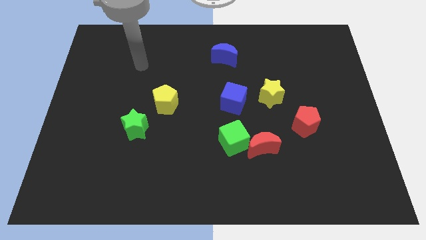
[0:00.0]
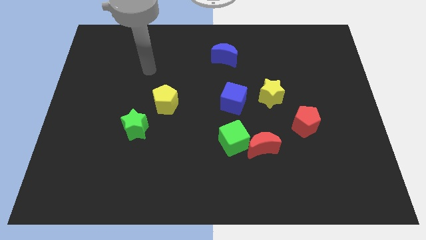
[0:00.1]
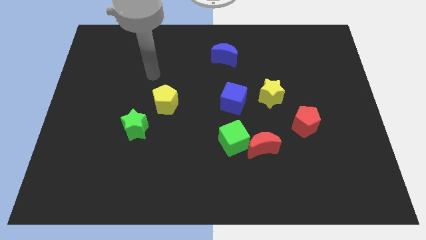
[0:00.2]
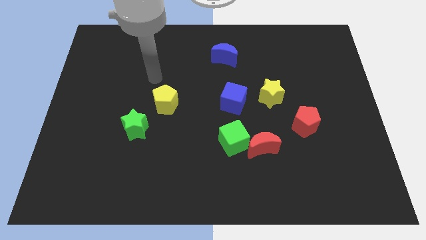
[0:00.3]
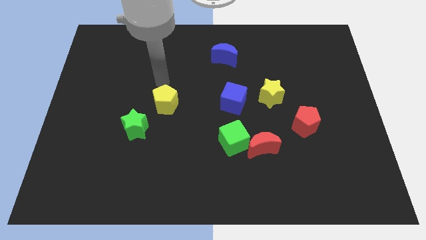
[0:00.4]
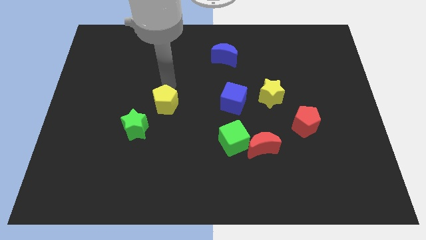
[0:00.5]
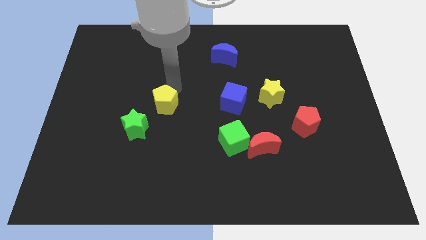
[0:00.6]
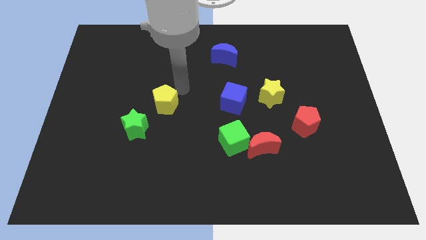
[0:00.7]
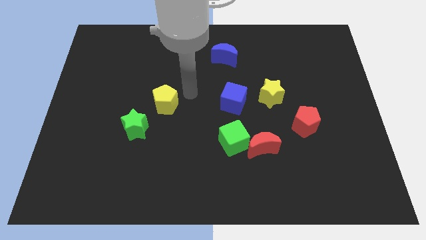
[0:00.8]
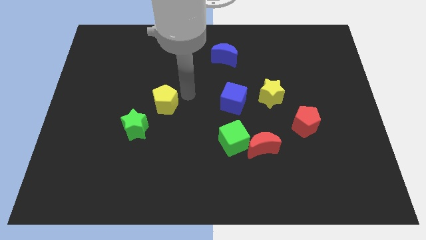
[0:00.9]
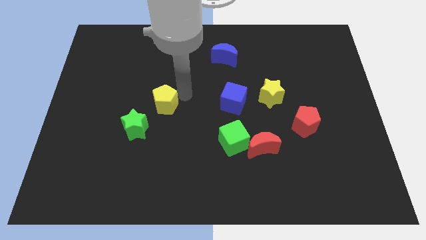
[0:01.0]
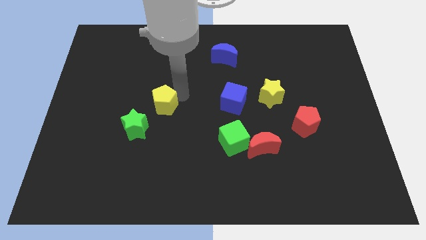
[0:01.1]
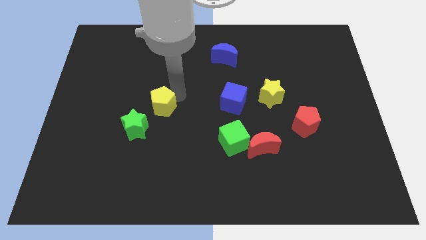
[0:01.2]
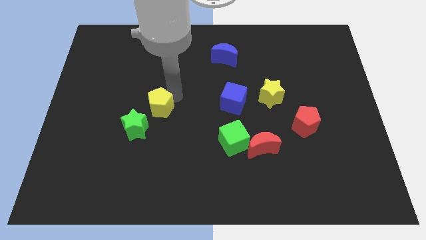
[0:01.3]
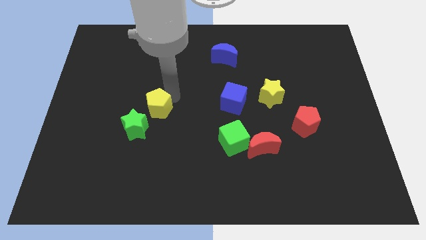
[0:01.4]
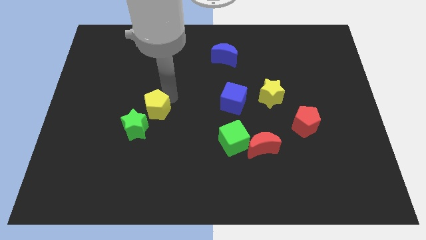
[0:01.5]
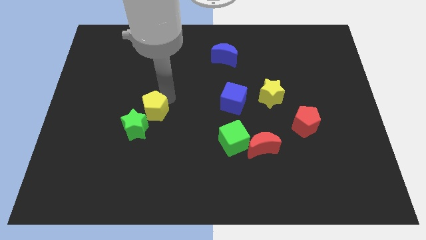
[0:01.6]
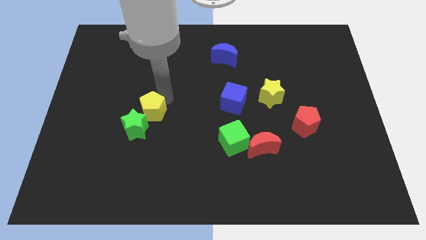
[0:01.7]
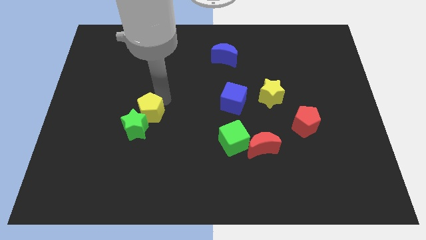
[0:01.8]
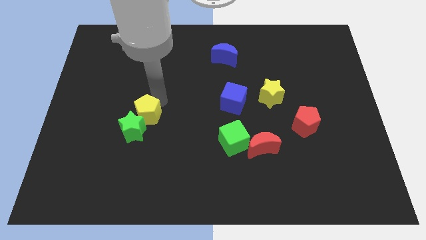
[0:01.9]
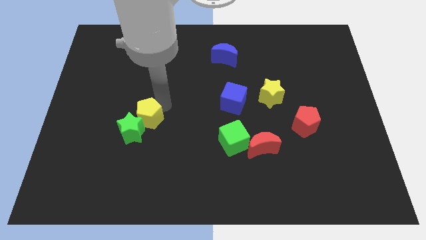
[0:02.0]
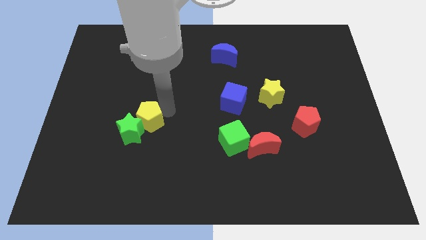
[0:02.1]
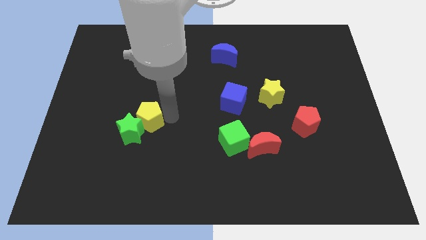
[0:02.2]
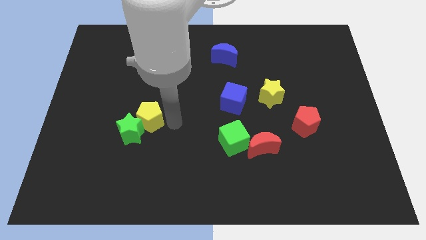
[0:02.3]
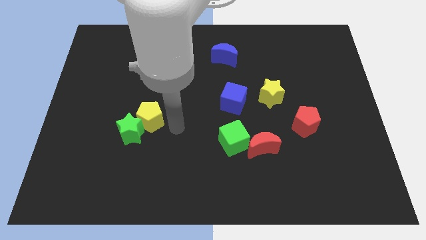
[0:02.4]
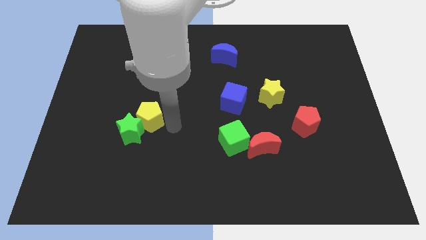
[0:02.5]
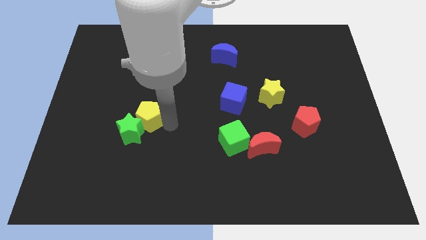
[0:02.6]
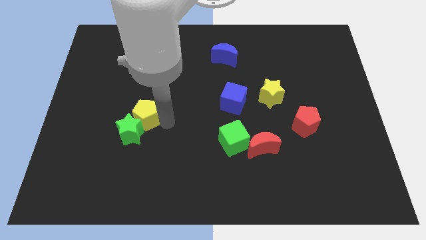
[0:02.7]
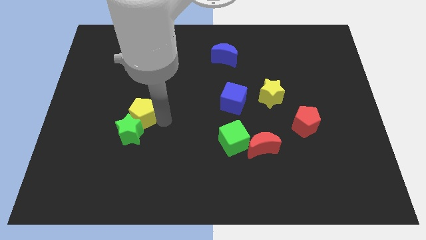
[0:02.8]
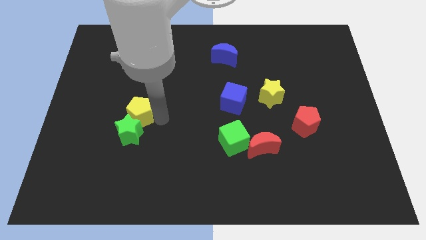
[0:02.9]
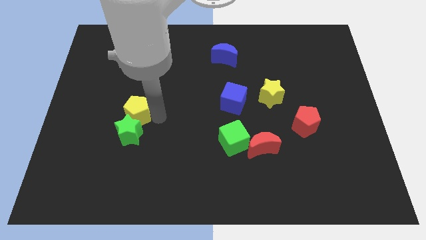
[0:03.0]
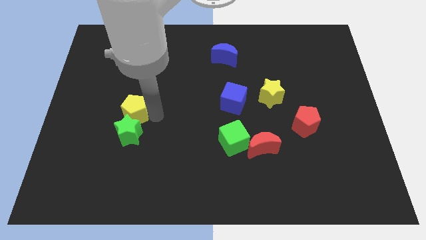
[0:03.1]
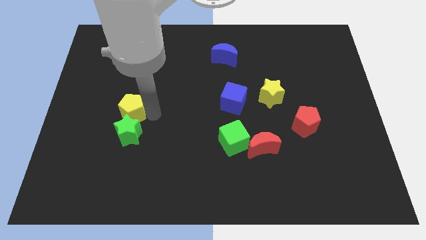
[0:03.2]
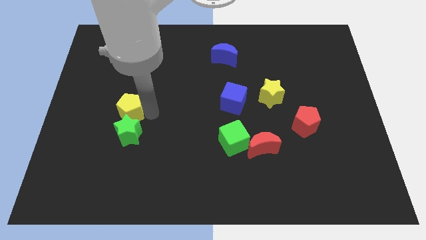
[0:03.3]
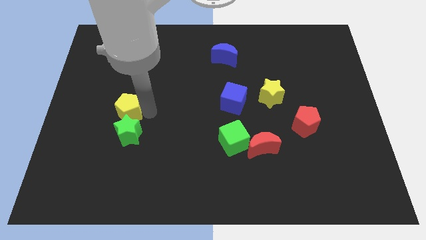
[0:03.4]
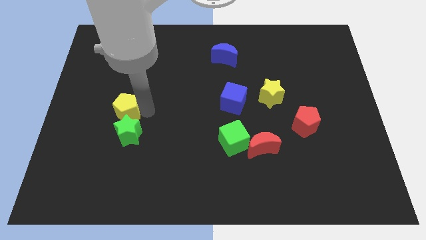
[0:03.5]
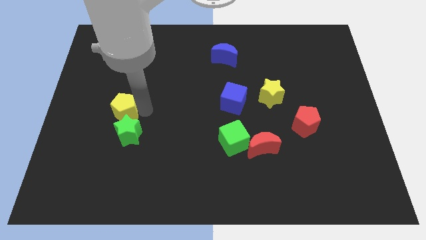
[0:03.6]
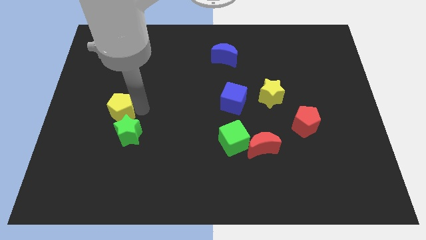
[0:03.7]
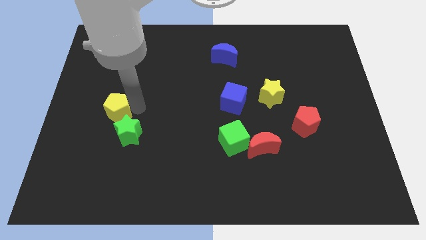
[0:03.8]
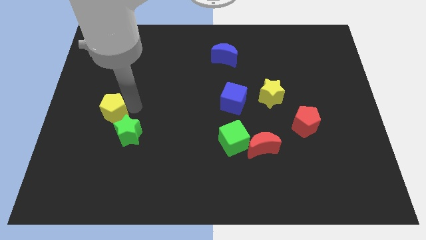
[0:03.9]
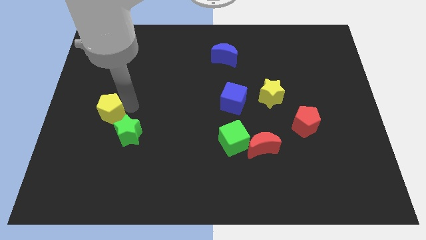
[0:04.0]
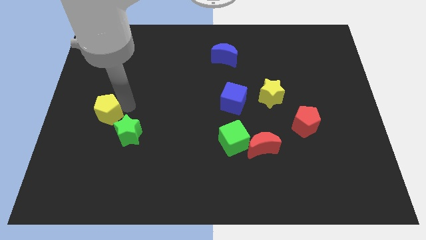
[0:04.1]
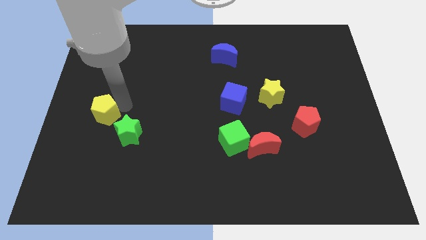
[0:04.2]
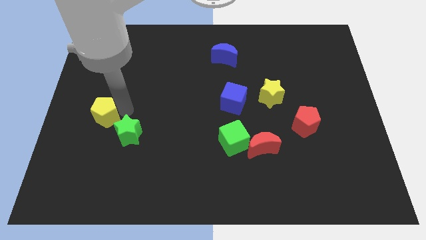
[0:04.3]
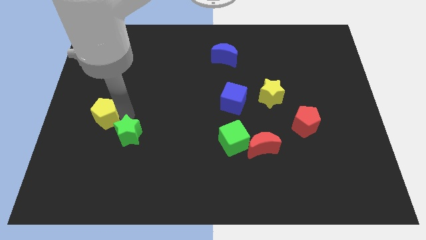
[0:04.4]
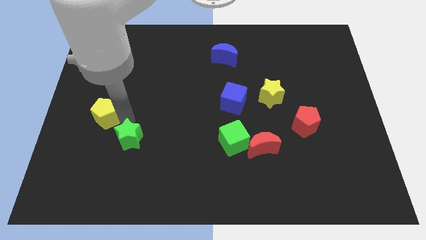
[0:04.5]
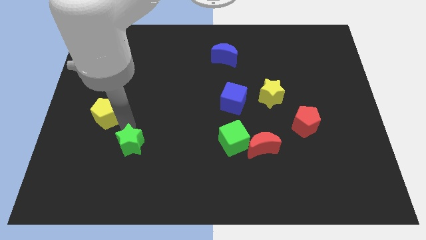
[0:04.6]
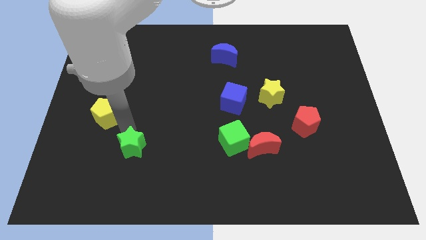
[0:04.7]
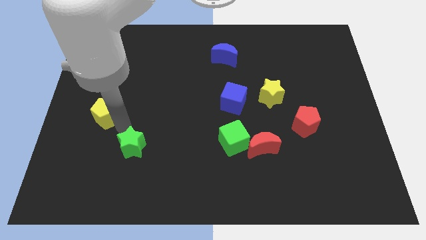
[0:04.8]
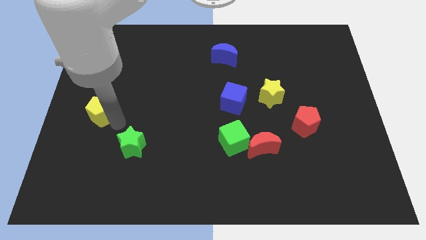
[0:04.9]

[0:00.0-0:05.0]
slide the yellow pentagon to the left side

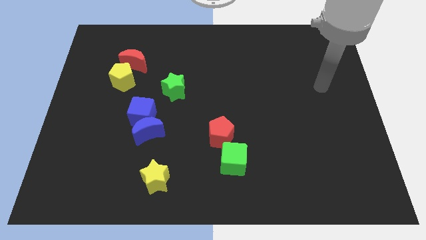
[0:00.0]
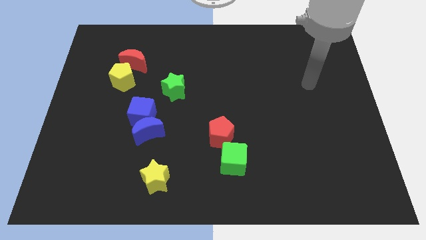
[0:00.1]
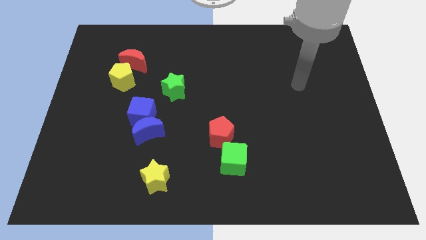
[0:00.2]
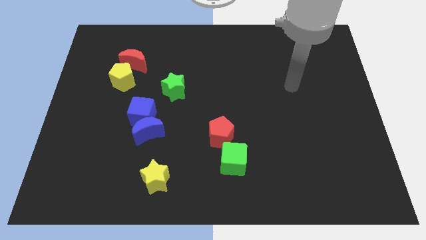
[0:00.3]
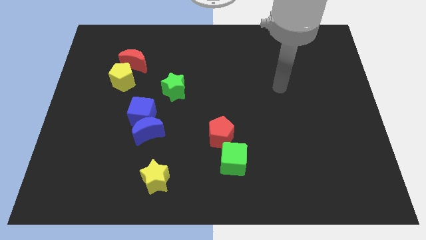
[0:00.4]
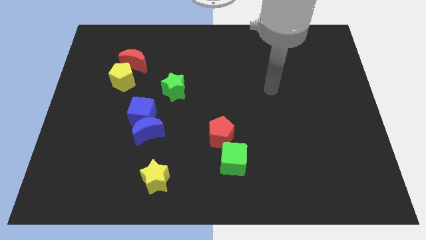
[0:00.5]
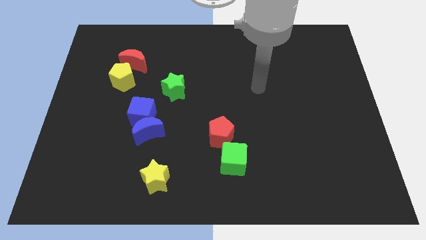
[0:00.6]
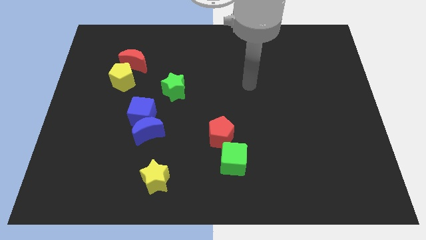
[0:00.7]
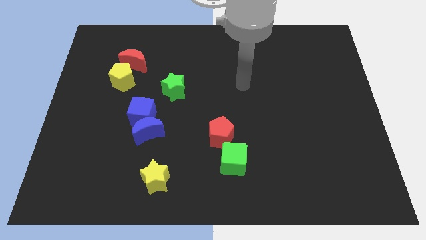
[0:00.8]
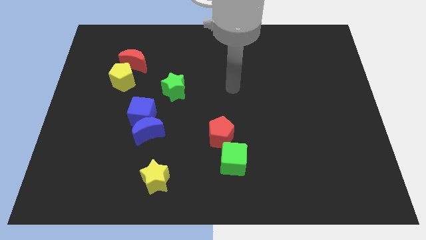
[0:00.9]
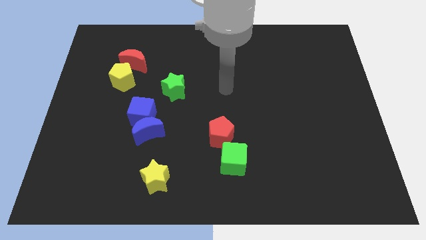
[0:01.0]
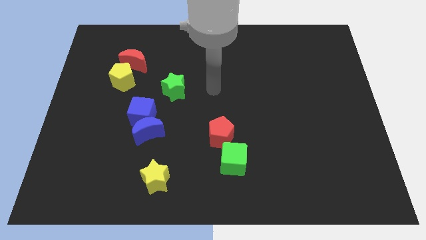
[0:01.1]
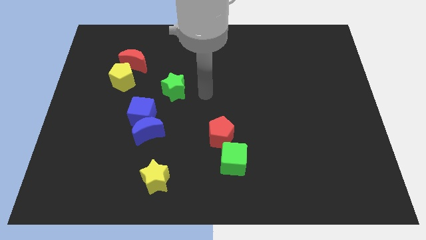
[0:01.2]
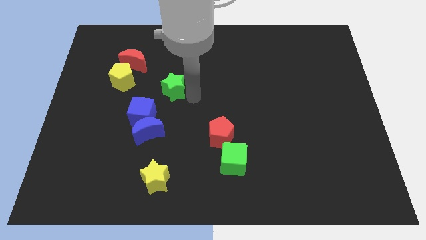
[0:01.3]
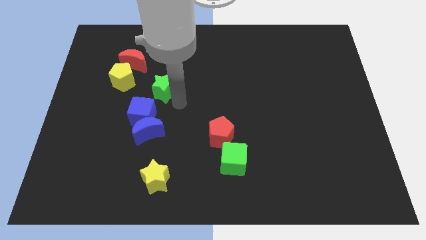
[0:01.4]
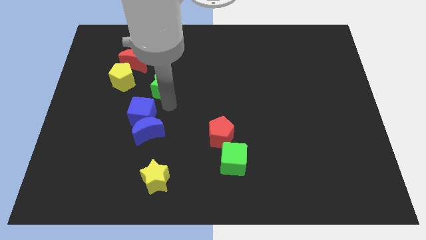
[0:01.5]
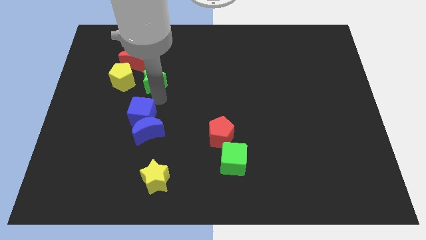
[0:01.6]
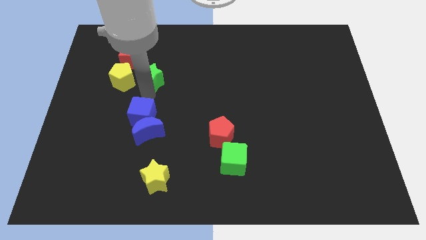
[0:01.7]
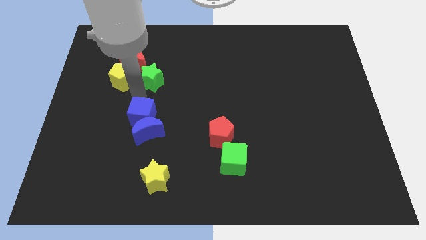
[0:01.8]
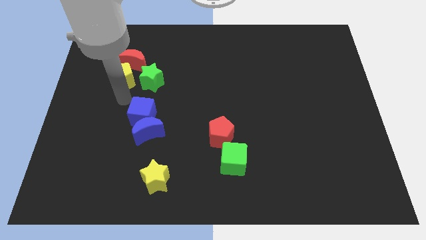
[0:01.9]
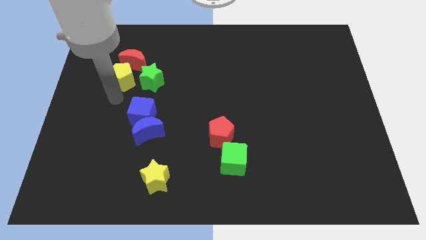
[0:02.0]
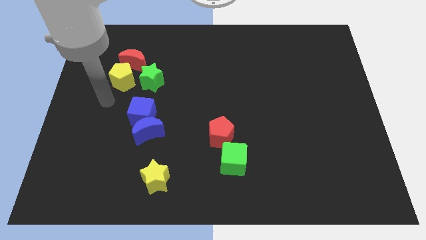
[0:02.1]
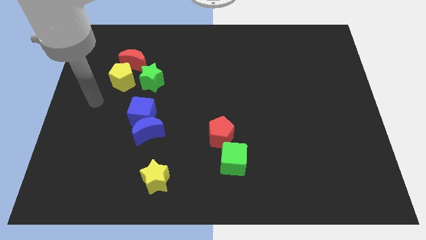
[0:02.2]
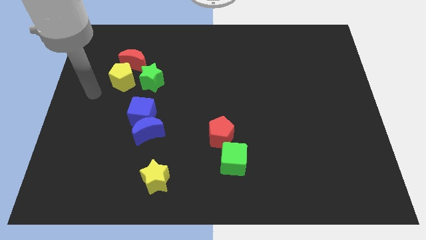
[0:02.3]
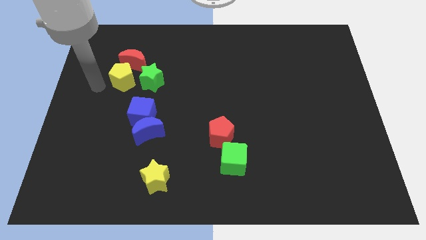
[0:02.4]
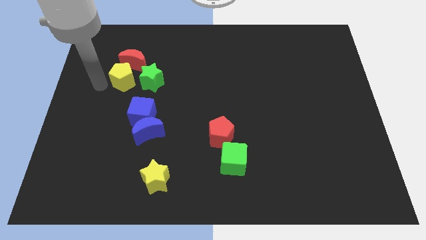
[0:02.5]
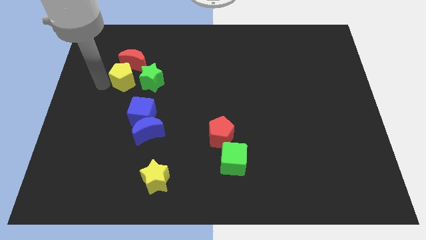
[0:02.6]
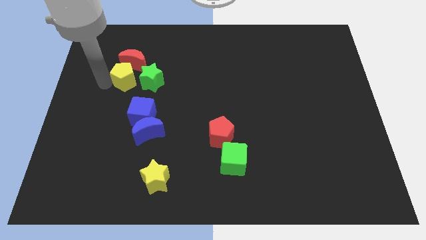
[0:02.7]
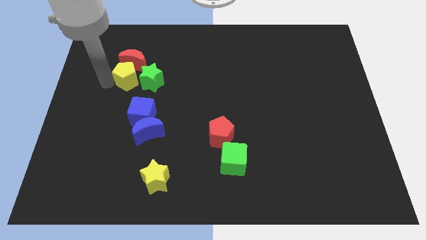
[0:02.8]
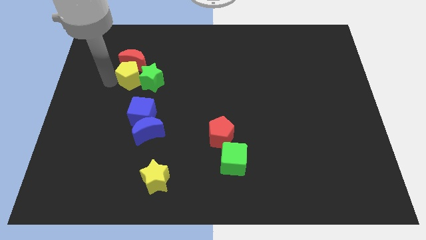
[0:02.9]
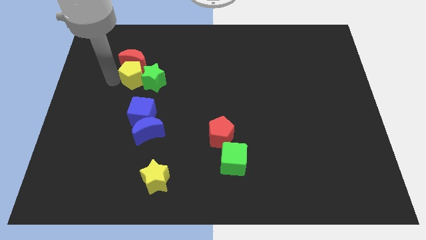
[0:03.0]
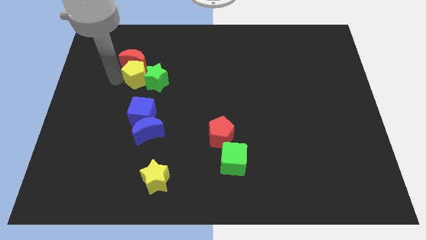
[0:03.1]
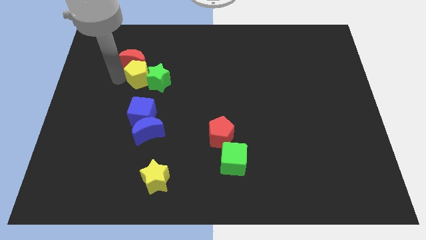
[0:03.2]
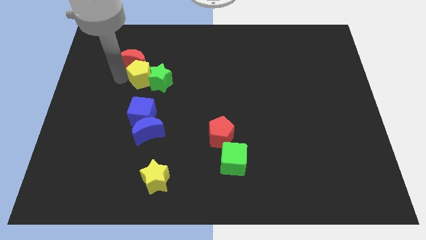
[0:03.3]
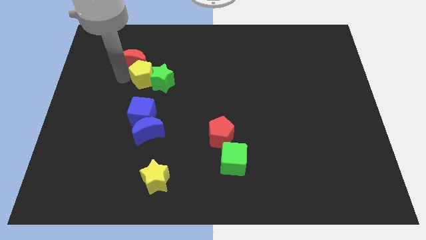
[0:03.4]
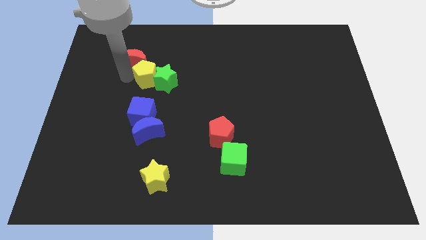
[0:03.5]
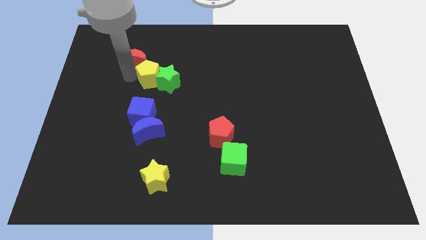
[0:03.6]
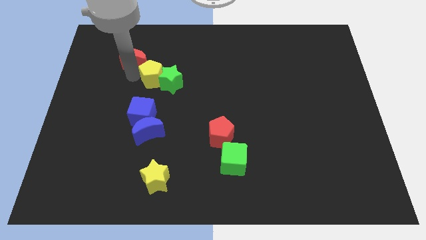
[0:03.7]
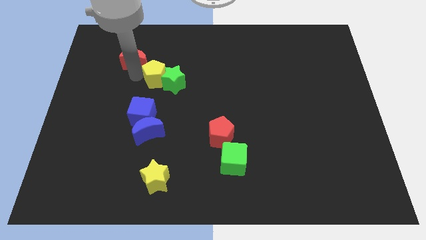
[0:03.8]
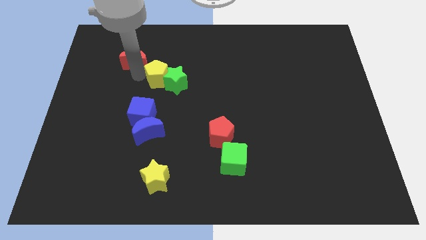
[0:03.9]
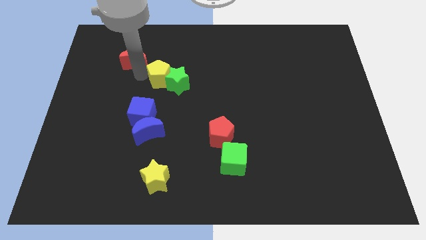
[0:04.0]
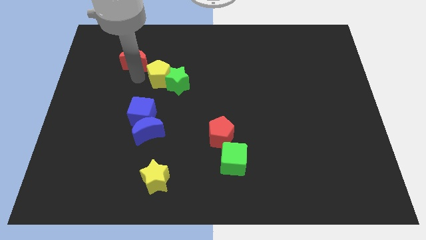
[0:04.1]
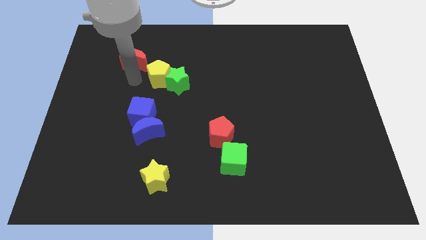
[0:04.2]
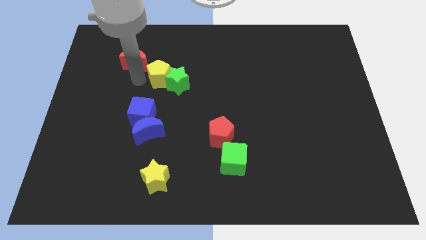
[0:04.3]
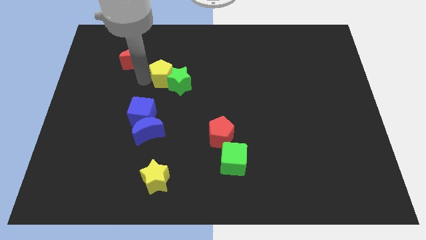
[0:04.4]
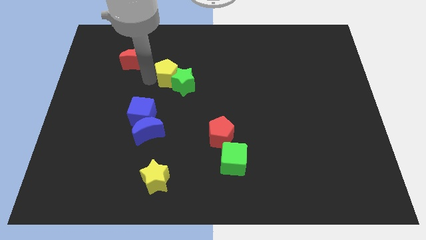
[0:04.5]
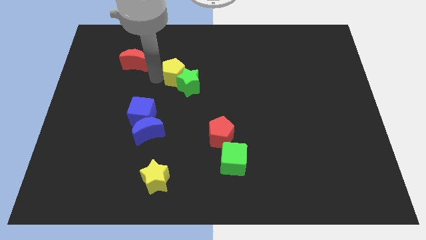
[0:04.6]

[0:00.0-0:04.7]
slide the yellow pentagon to the center
